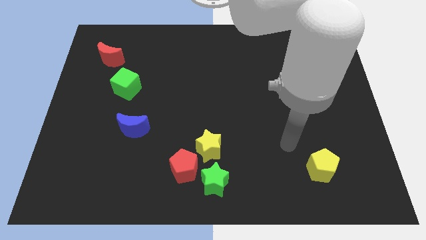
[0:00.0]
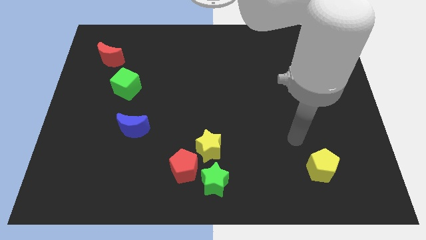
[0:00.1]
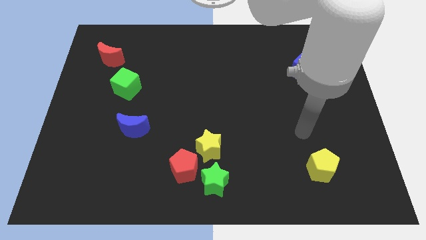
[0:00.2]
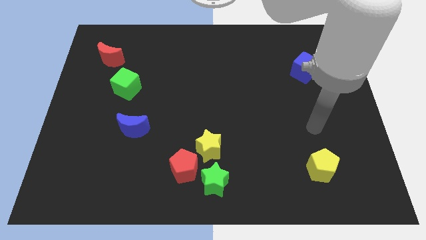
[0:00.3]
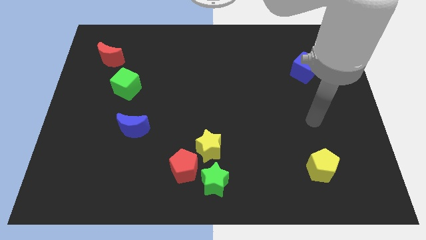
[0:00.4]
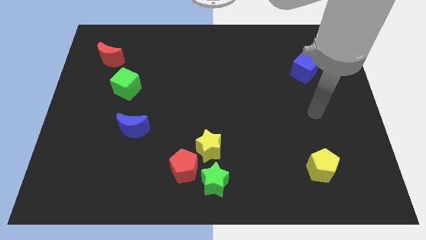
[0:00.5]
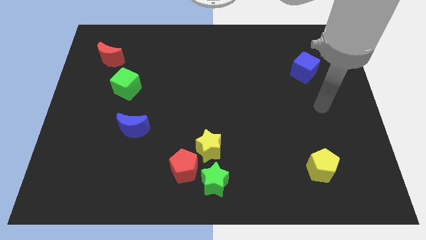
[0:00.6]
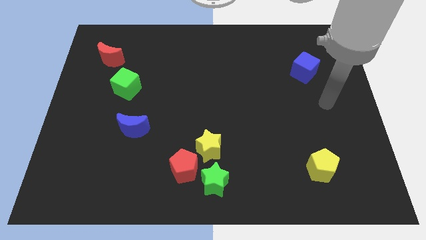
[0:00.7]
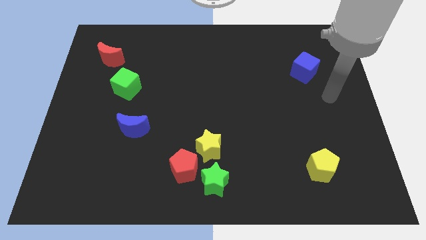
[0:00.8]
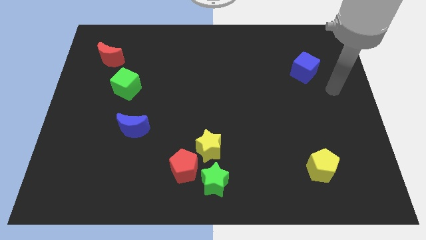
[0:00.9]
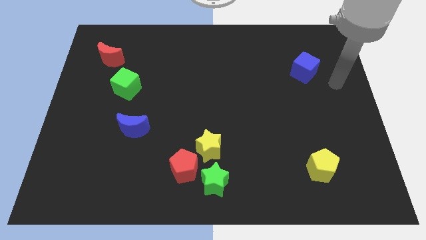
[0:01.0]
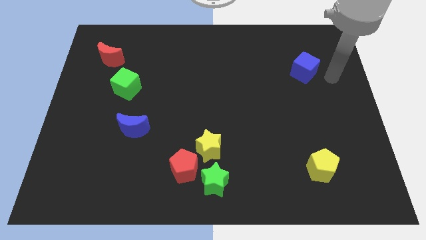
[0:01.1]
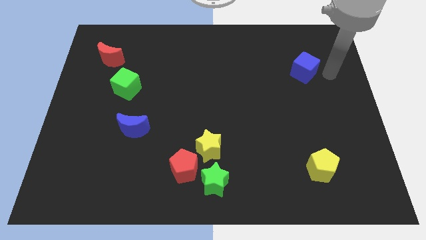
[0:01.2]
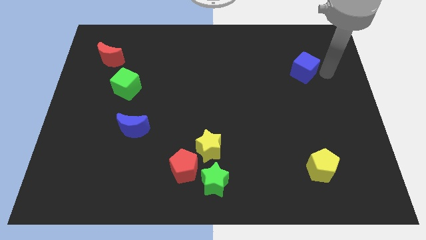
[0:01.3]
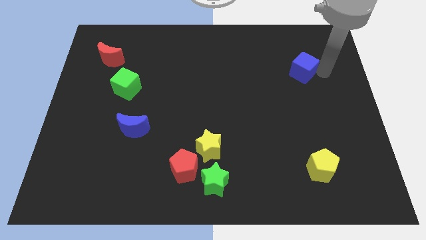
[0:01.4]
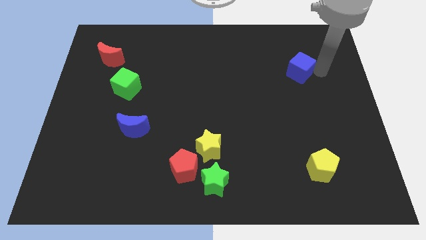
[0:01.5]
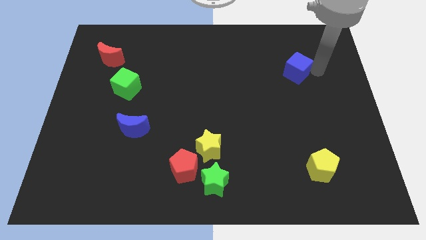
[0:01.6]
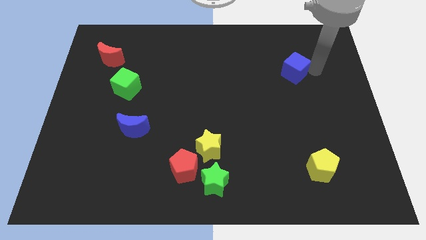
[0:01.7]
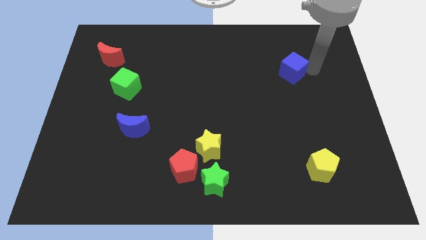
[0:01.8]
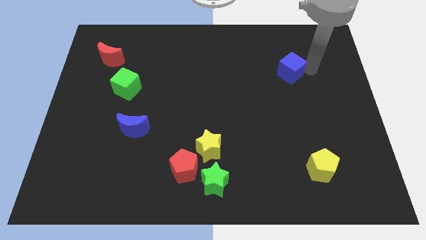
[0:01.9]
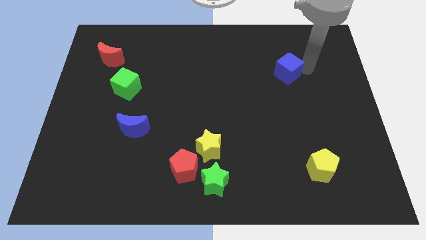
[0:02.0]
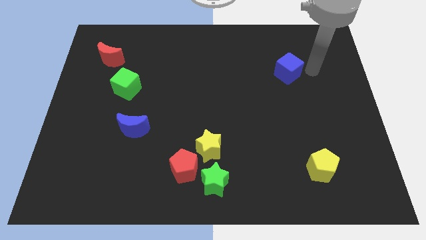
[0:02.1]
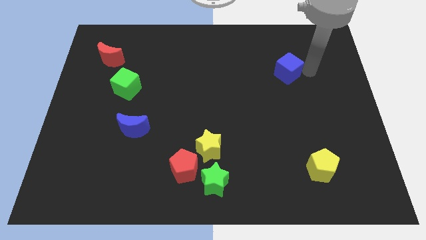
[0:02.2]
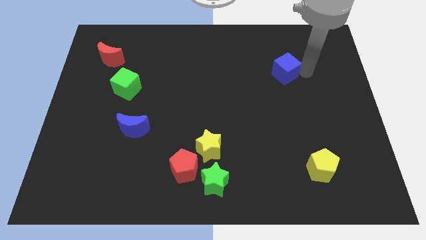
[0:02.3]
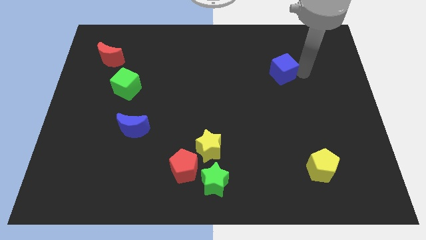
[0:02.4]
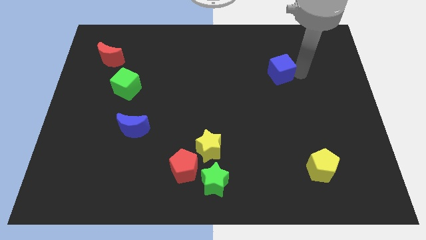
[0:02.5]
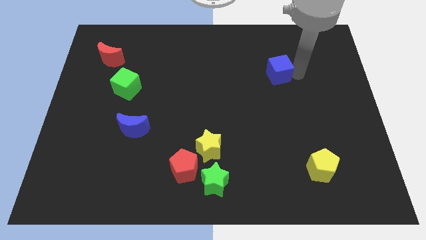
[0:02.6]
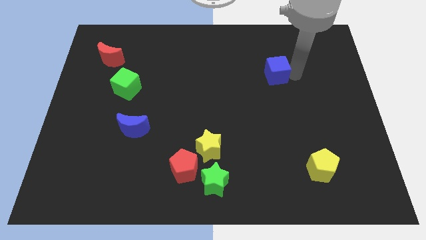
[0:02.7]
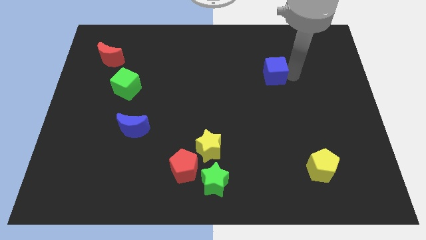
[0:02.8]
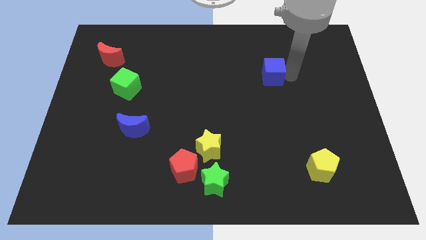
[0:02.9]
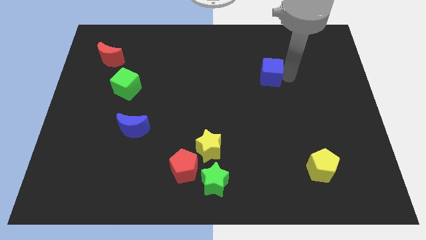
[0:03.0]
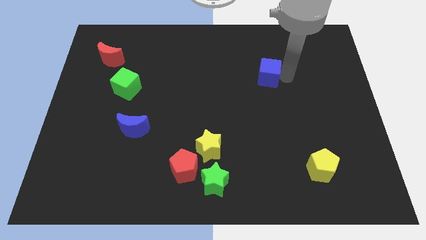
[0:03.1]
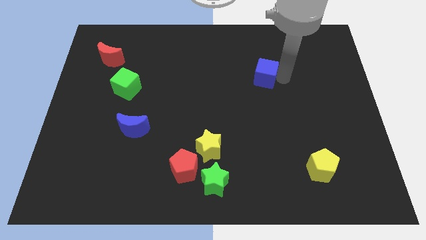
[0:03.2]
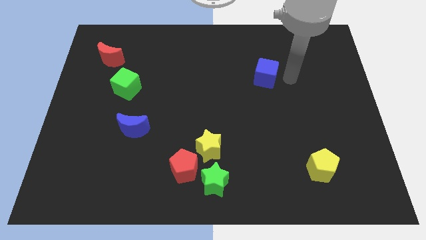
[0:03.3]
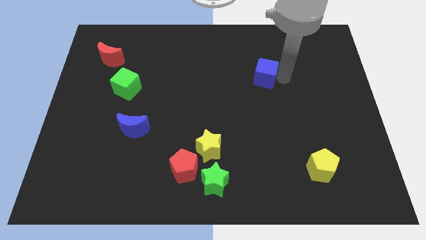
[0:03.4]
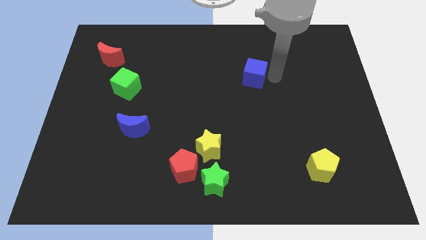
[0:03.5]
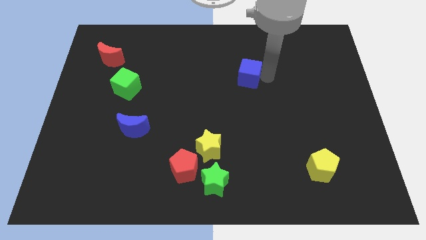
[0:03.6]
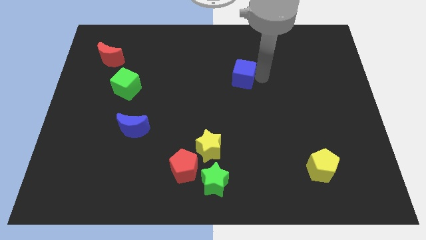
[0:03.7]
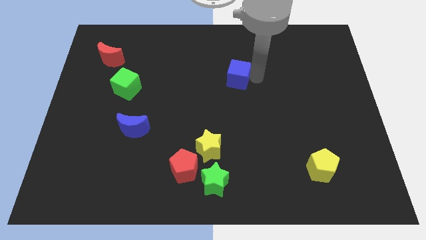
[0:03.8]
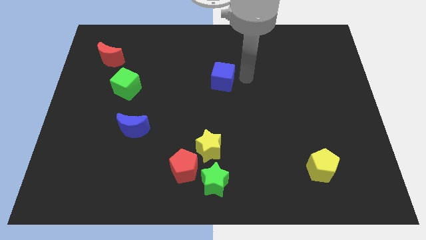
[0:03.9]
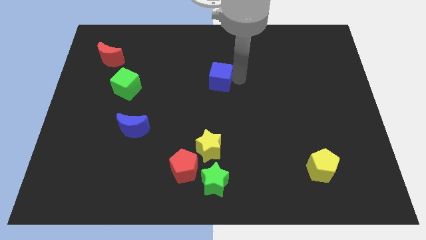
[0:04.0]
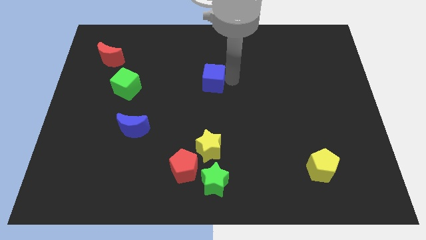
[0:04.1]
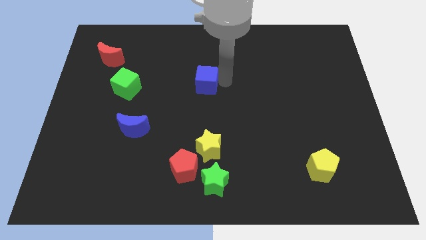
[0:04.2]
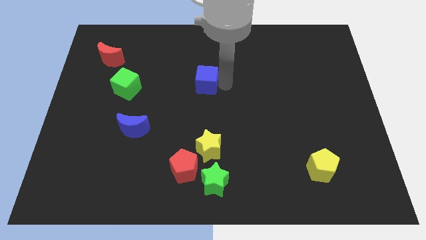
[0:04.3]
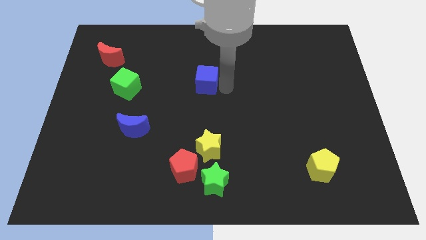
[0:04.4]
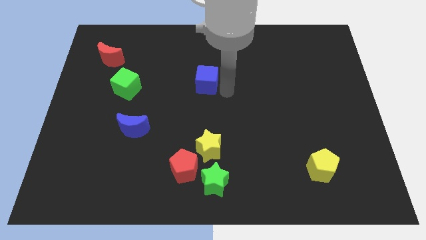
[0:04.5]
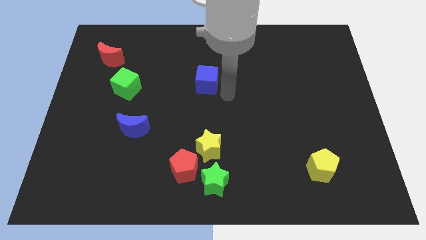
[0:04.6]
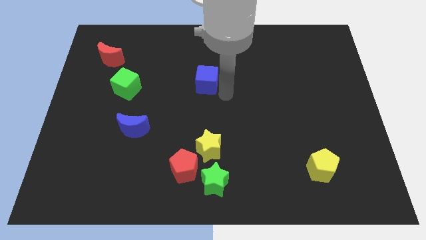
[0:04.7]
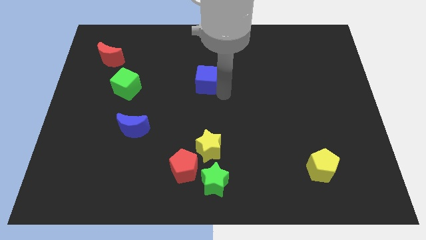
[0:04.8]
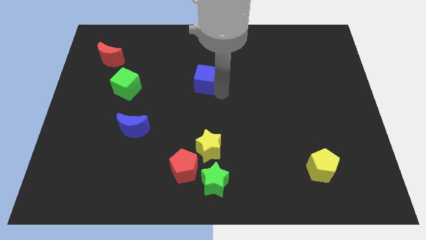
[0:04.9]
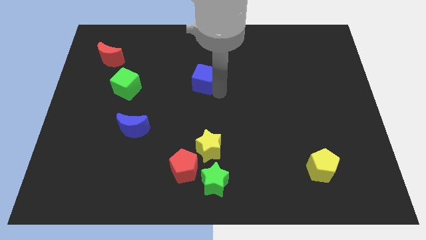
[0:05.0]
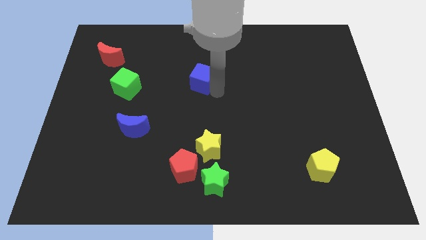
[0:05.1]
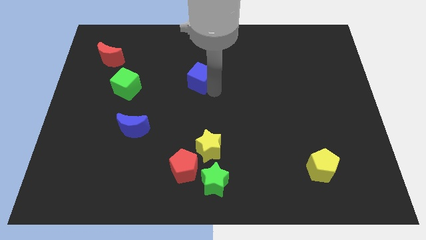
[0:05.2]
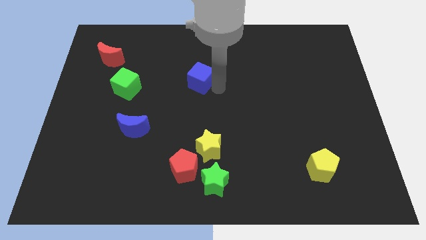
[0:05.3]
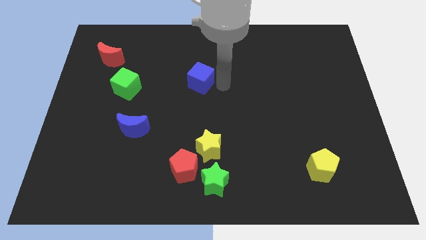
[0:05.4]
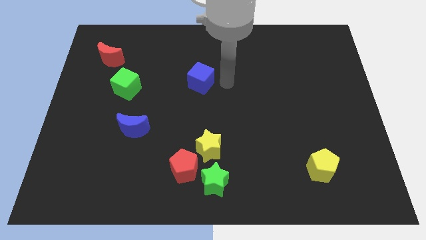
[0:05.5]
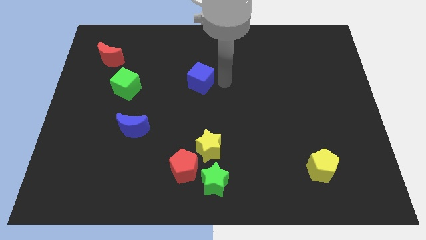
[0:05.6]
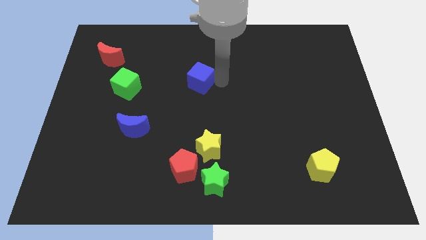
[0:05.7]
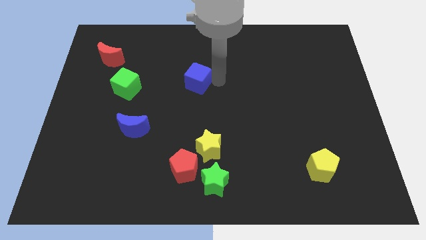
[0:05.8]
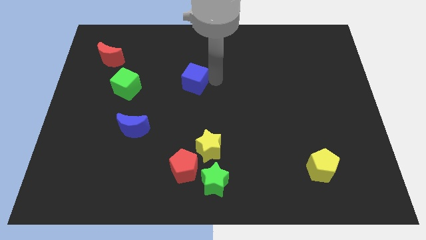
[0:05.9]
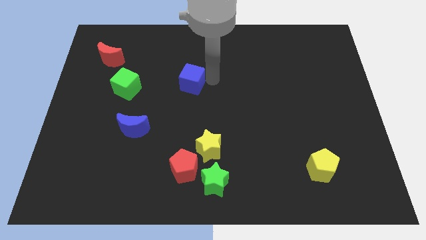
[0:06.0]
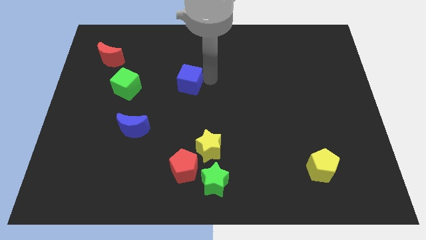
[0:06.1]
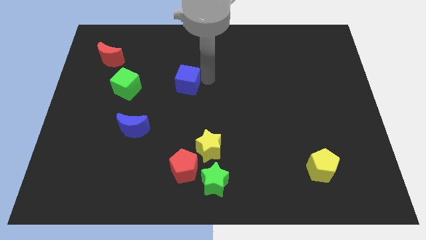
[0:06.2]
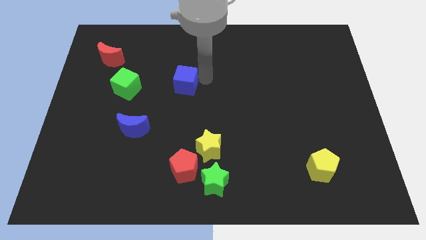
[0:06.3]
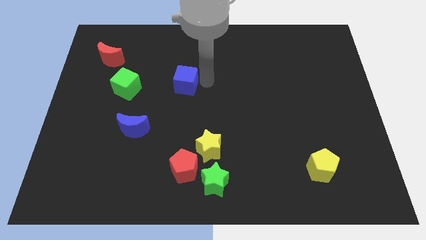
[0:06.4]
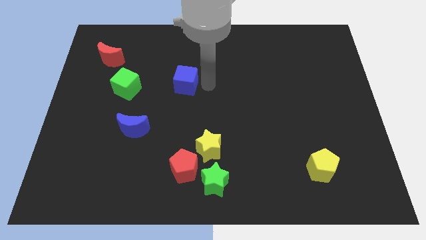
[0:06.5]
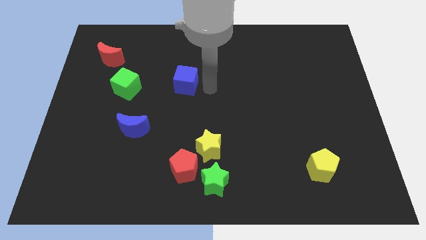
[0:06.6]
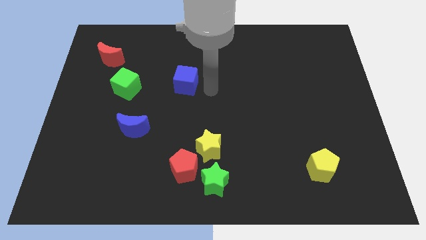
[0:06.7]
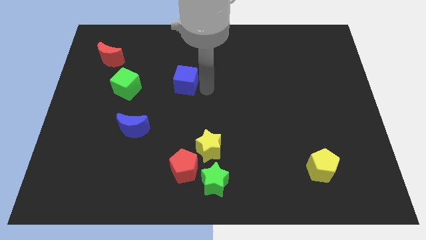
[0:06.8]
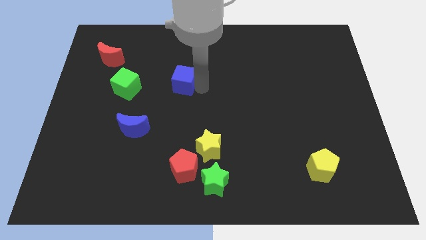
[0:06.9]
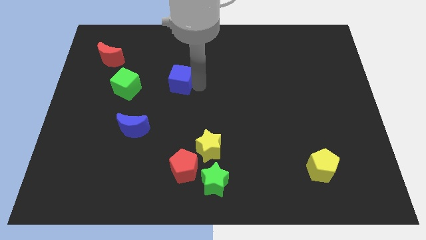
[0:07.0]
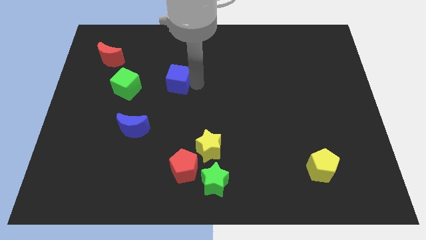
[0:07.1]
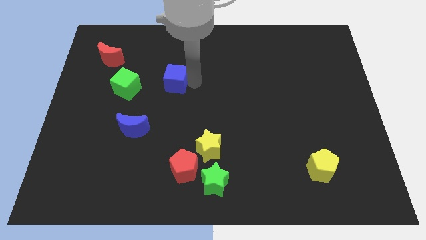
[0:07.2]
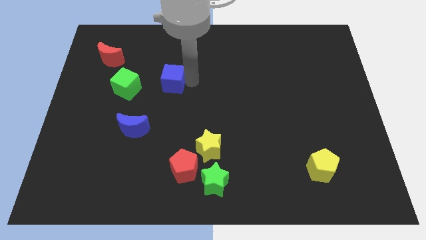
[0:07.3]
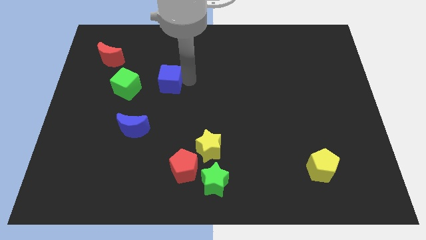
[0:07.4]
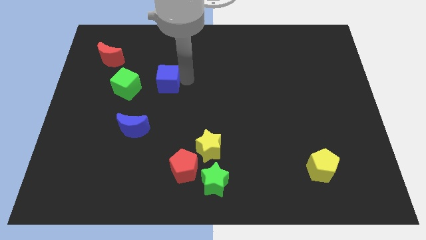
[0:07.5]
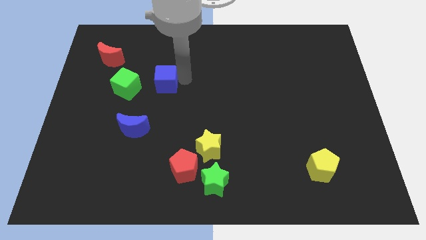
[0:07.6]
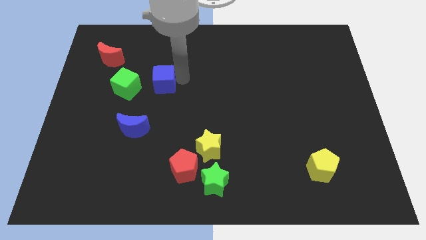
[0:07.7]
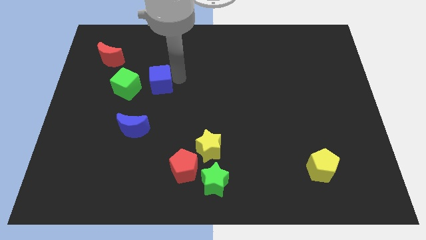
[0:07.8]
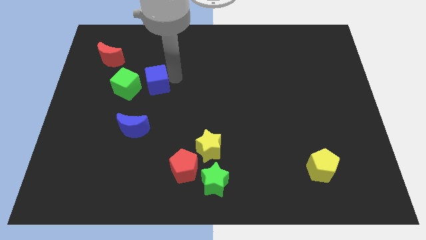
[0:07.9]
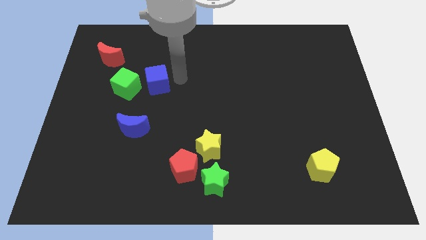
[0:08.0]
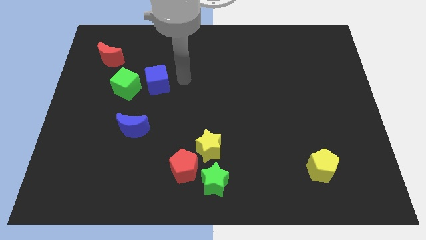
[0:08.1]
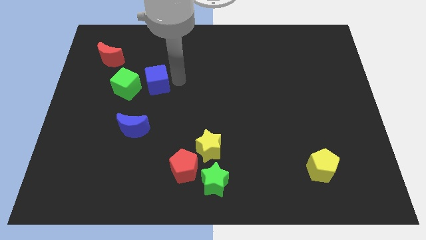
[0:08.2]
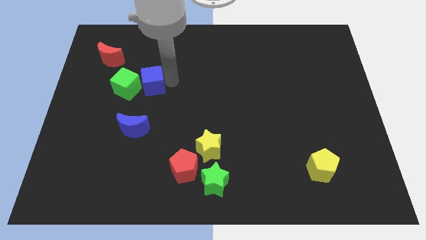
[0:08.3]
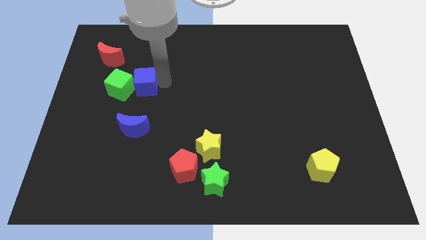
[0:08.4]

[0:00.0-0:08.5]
slide the blue cube to the green cube
